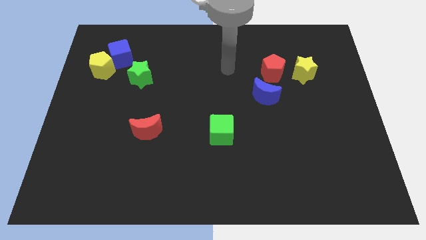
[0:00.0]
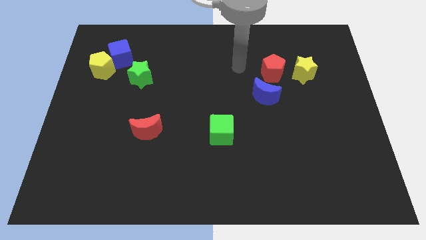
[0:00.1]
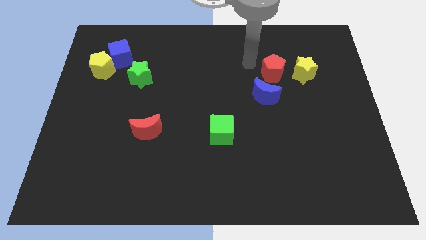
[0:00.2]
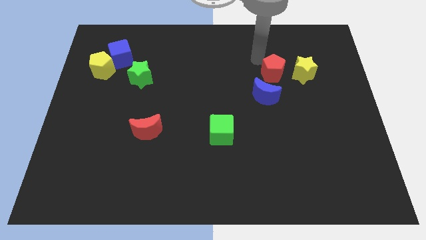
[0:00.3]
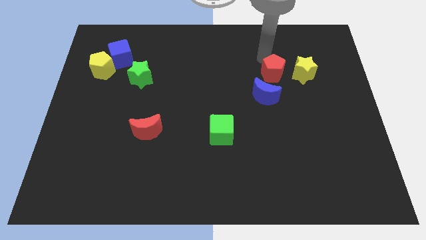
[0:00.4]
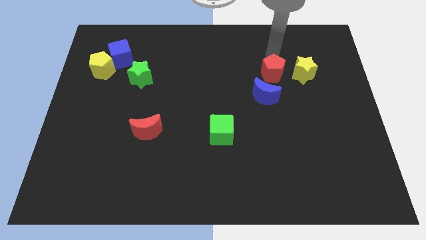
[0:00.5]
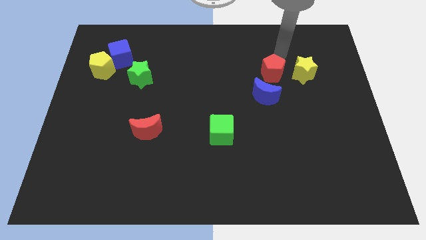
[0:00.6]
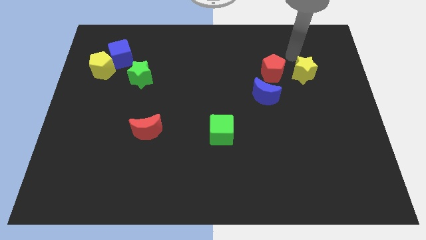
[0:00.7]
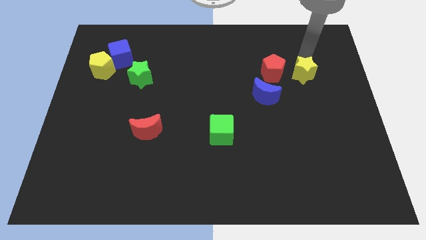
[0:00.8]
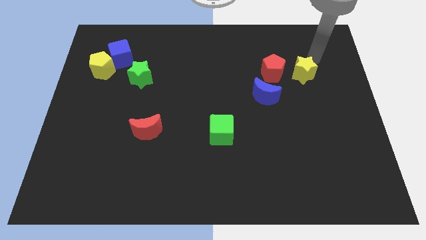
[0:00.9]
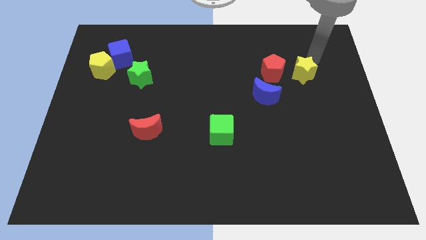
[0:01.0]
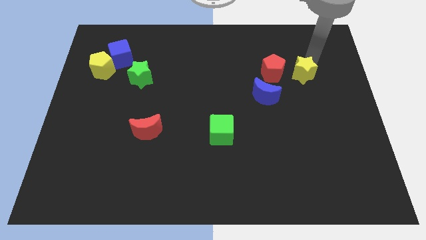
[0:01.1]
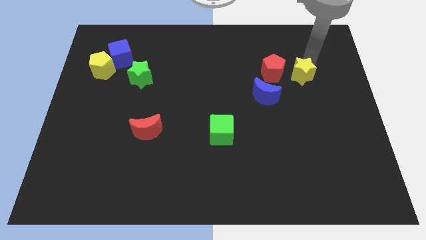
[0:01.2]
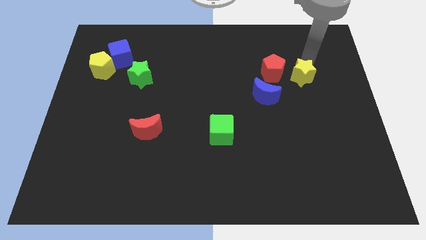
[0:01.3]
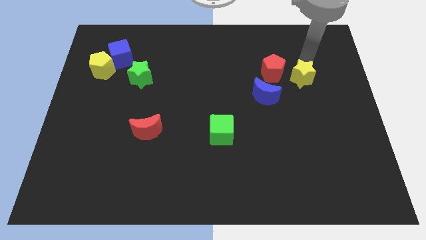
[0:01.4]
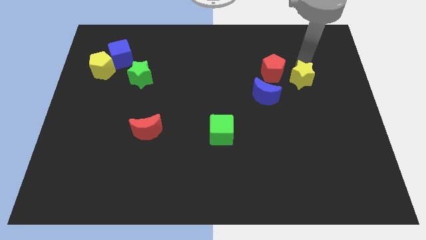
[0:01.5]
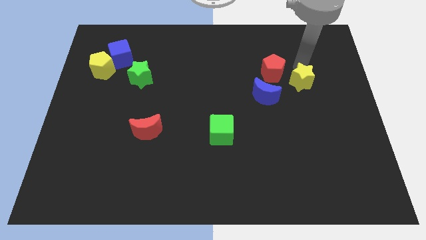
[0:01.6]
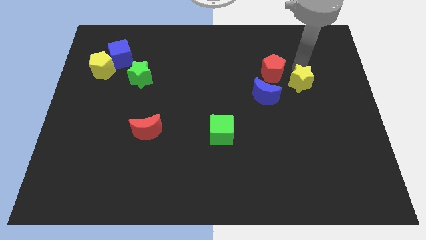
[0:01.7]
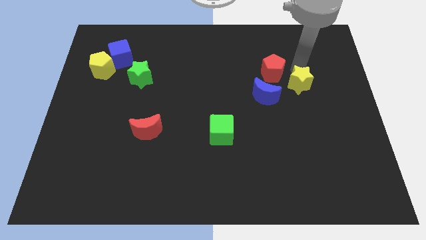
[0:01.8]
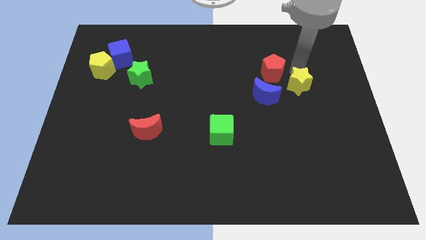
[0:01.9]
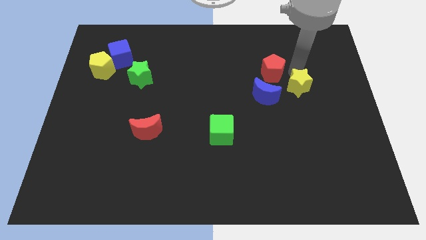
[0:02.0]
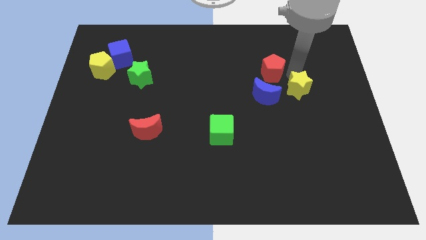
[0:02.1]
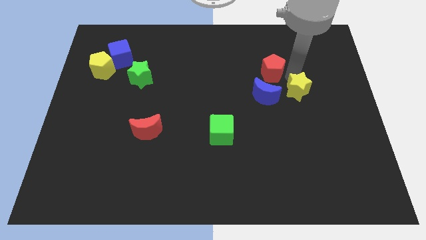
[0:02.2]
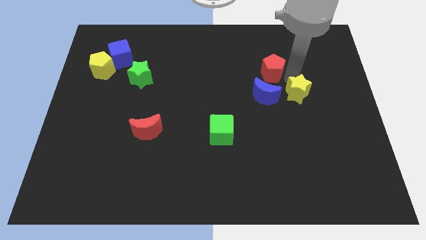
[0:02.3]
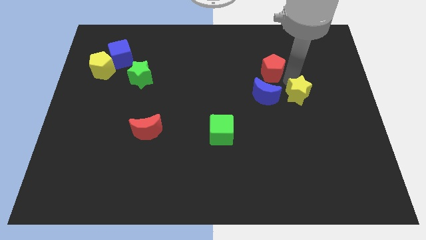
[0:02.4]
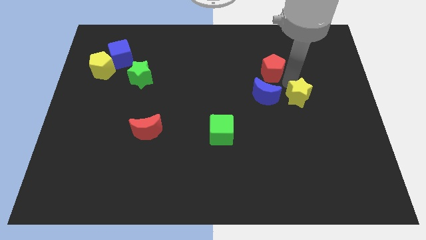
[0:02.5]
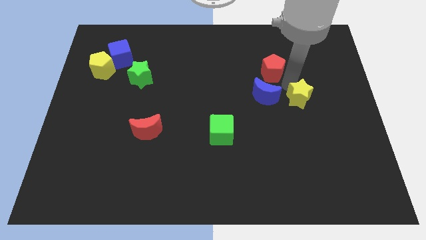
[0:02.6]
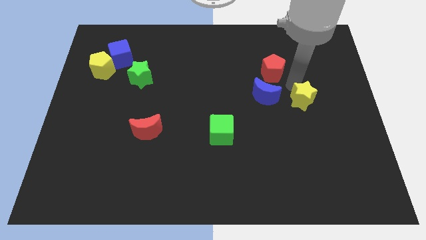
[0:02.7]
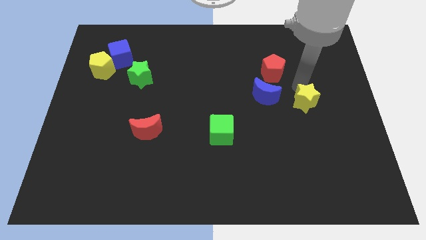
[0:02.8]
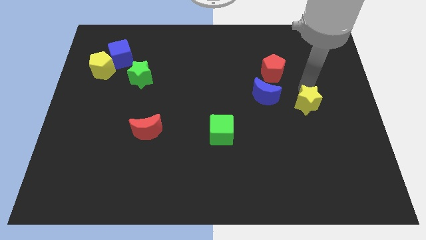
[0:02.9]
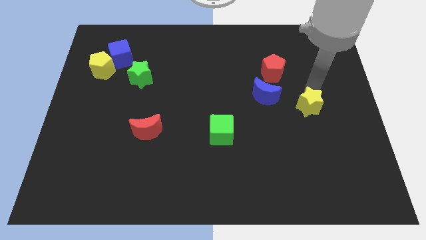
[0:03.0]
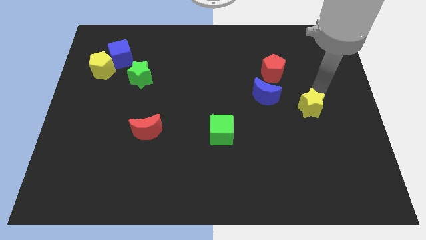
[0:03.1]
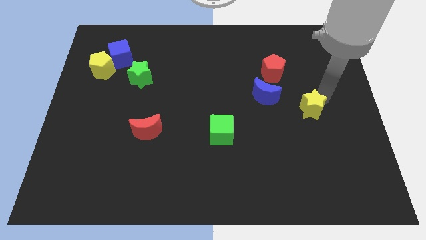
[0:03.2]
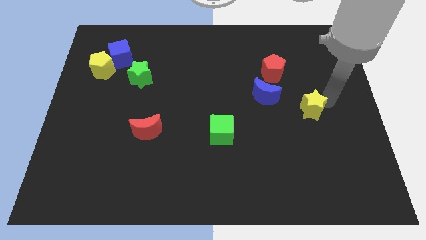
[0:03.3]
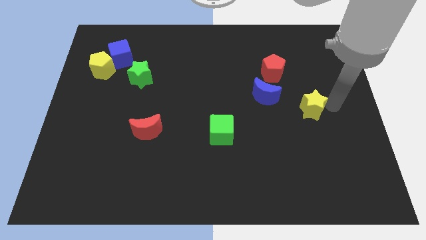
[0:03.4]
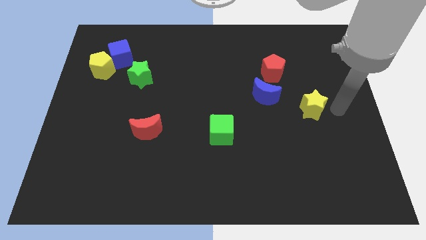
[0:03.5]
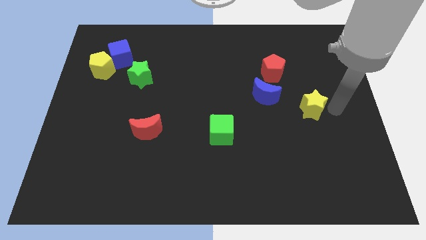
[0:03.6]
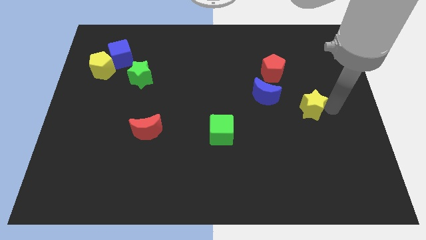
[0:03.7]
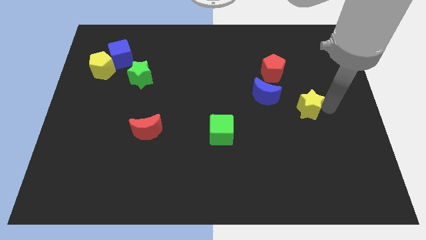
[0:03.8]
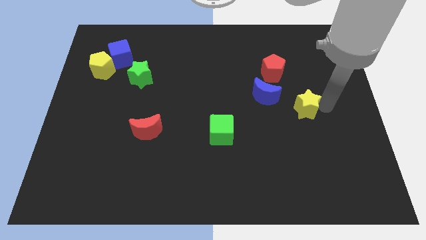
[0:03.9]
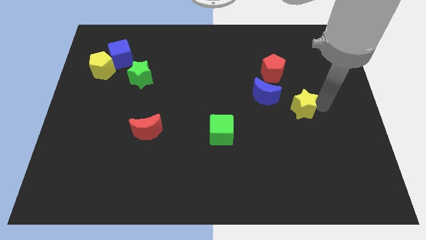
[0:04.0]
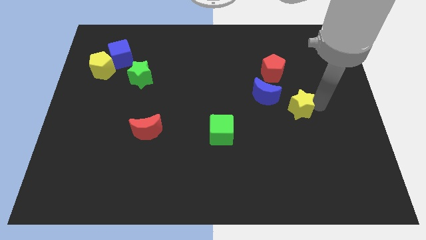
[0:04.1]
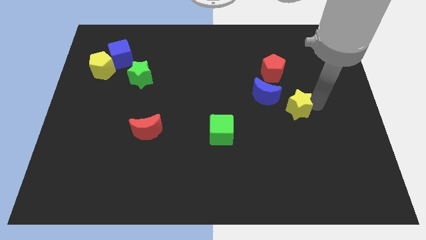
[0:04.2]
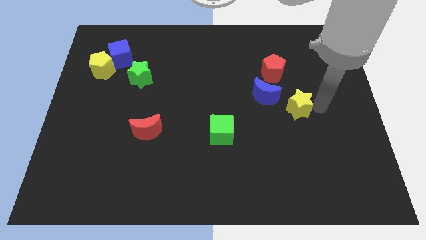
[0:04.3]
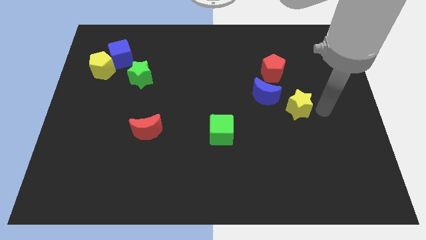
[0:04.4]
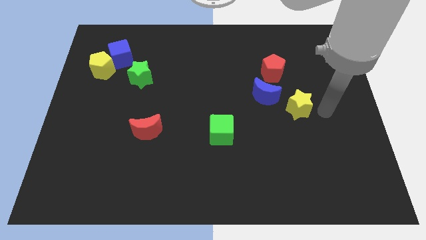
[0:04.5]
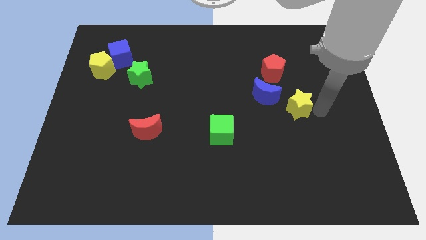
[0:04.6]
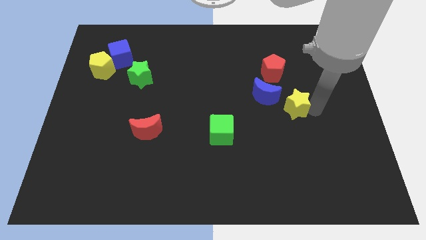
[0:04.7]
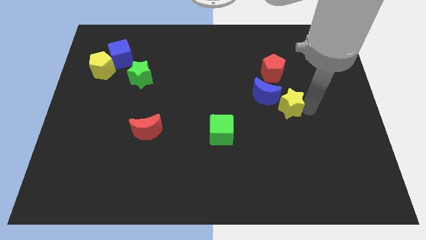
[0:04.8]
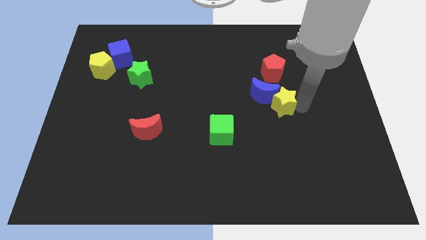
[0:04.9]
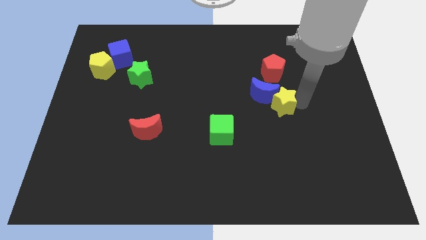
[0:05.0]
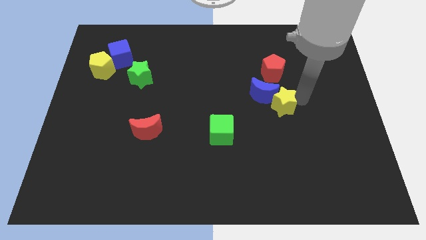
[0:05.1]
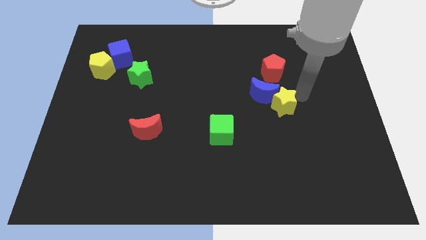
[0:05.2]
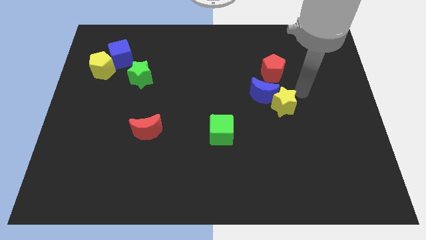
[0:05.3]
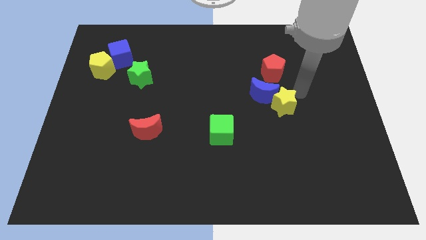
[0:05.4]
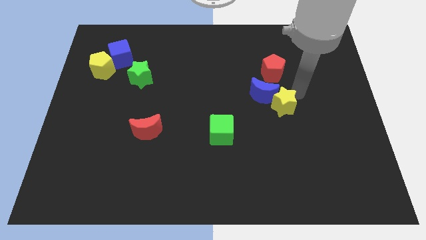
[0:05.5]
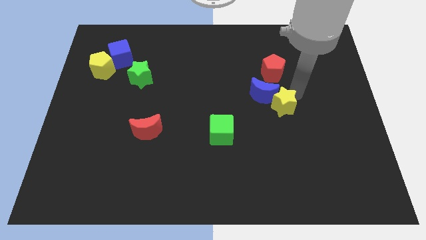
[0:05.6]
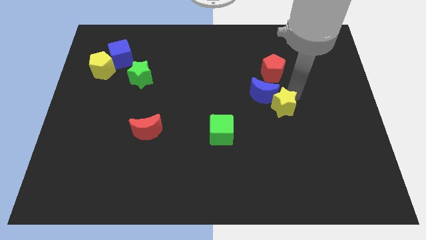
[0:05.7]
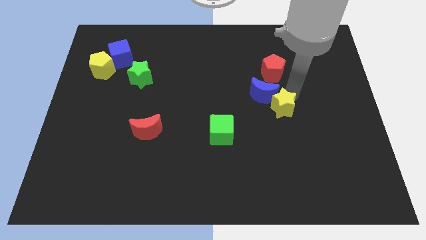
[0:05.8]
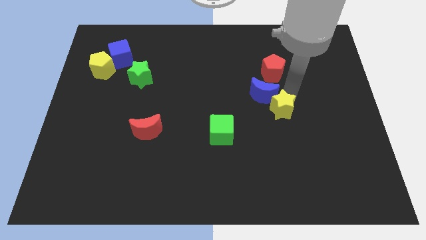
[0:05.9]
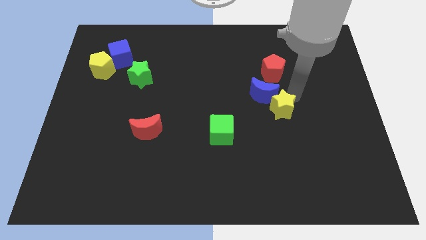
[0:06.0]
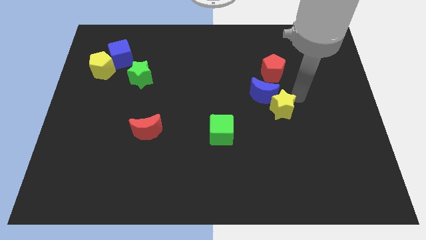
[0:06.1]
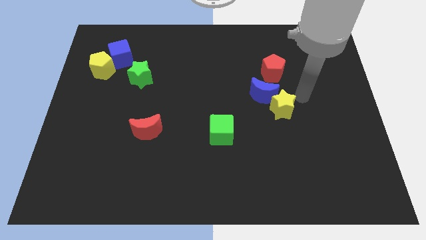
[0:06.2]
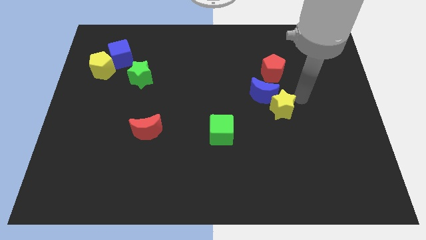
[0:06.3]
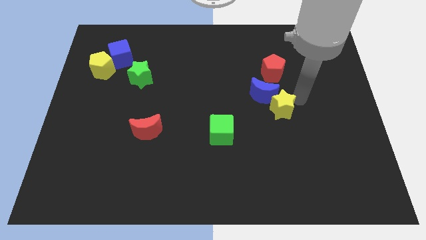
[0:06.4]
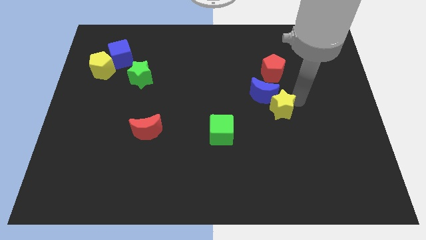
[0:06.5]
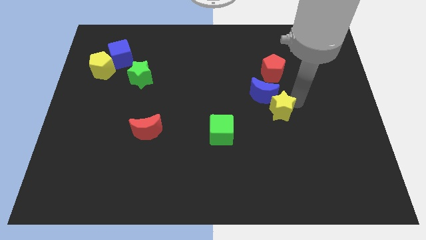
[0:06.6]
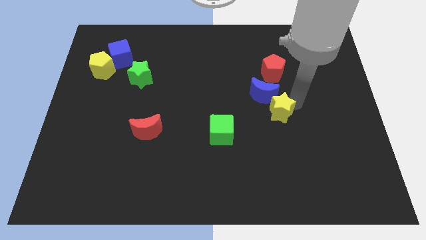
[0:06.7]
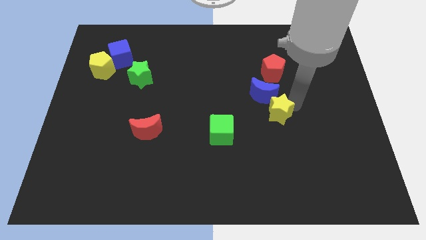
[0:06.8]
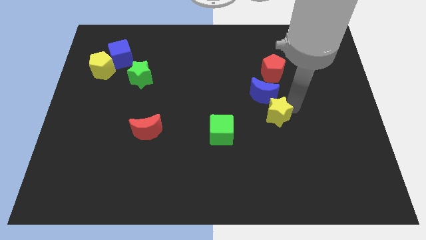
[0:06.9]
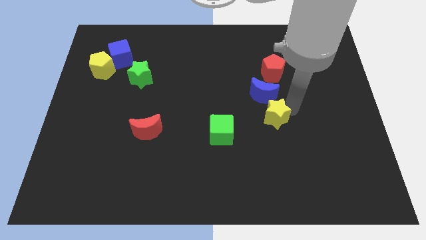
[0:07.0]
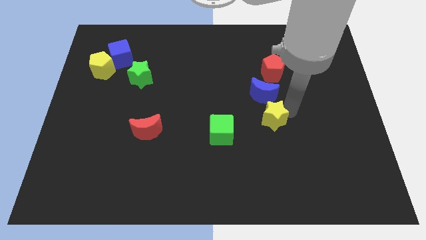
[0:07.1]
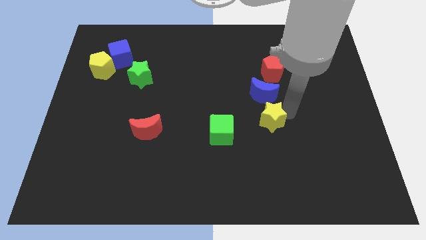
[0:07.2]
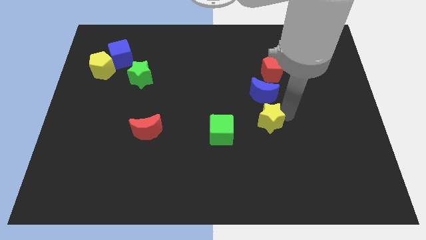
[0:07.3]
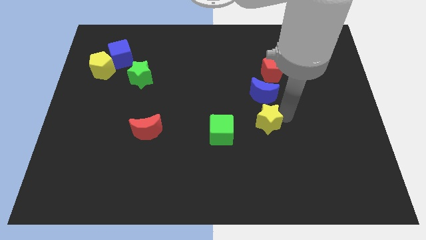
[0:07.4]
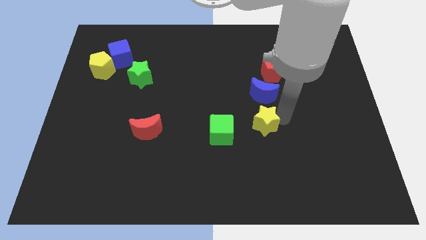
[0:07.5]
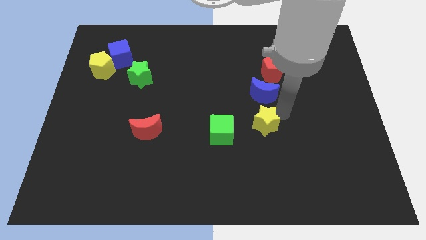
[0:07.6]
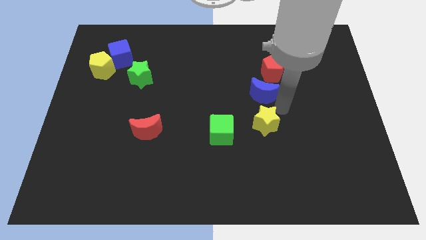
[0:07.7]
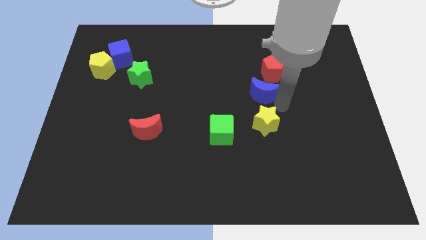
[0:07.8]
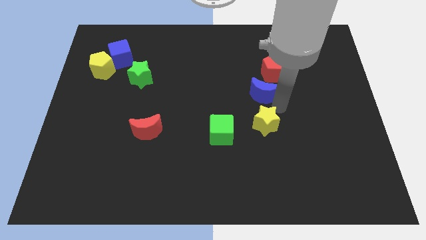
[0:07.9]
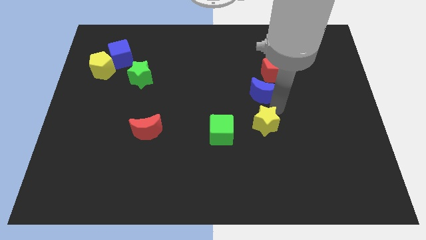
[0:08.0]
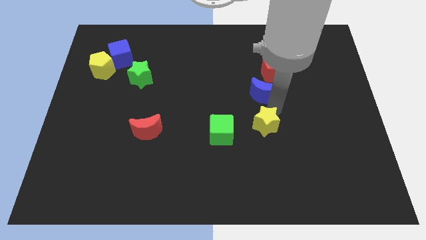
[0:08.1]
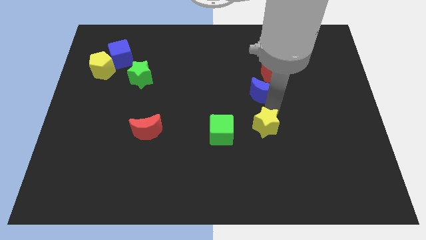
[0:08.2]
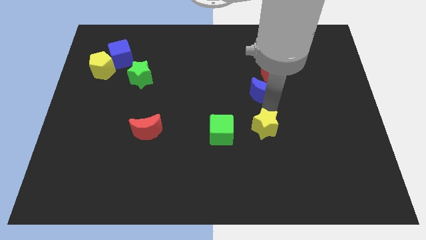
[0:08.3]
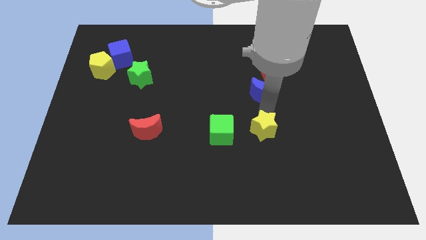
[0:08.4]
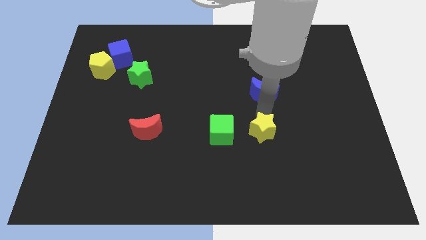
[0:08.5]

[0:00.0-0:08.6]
slide the yellow star diagonally down and left
